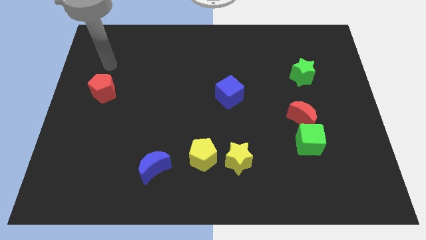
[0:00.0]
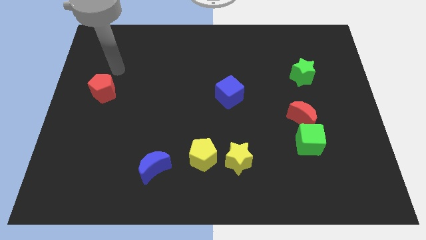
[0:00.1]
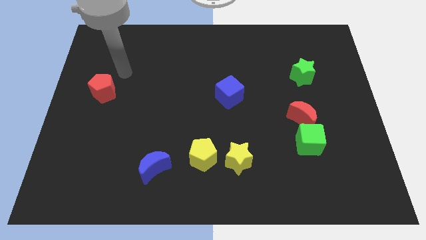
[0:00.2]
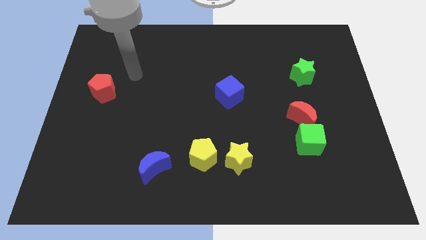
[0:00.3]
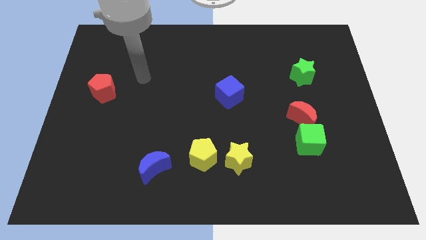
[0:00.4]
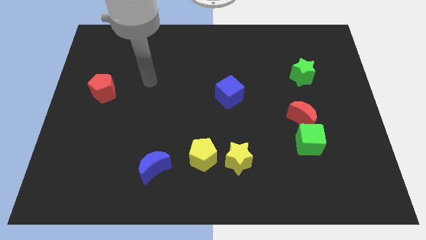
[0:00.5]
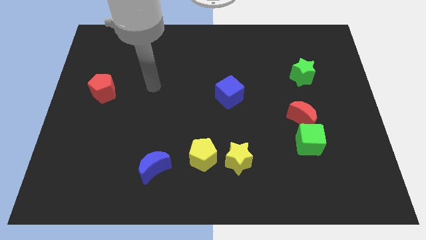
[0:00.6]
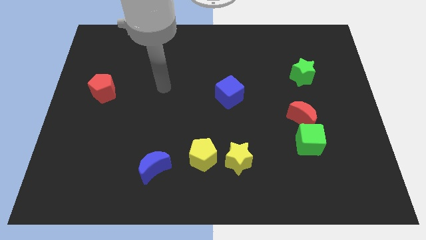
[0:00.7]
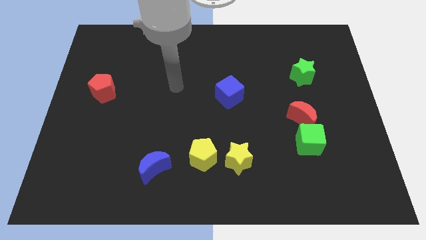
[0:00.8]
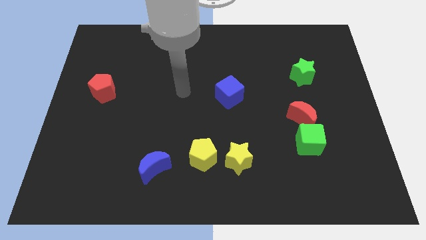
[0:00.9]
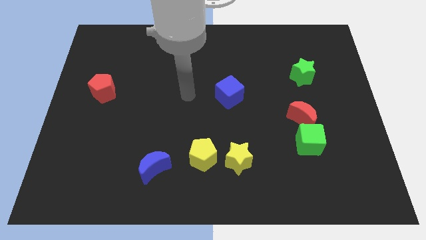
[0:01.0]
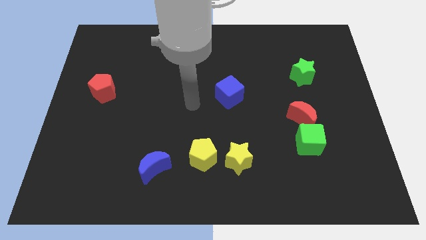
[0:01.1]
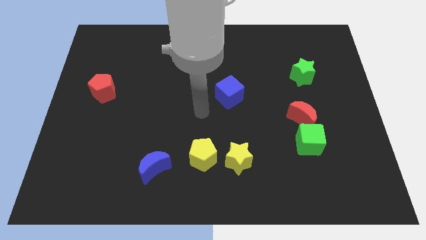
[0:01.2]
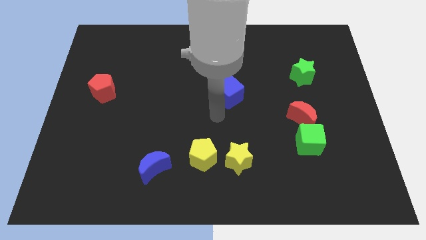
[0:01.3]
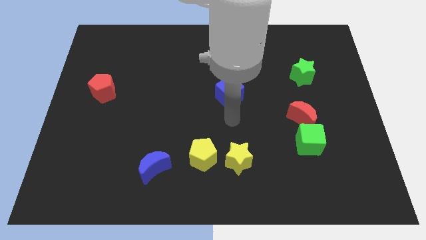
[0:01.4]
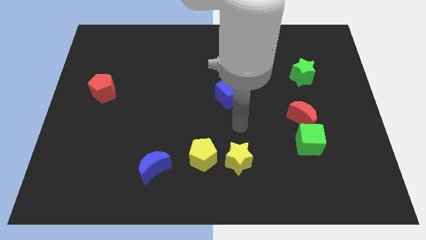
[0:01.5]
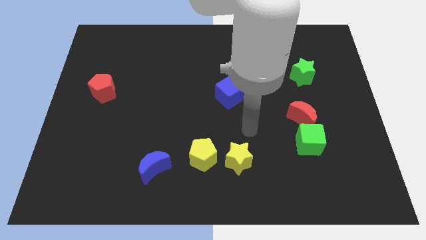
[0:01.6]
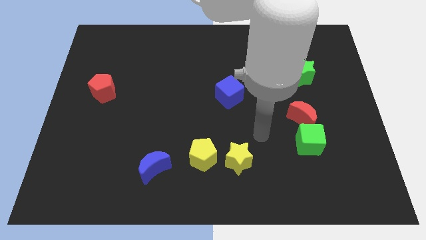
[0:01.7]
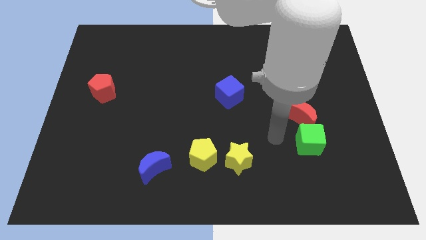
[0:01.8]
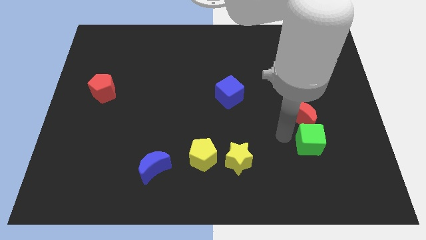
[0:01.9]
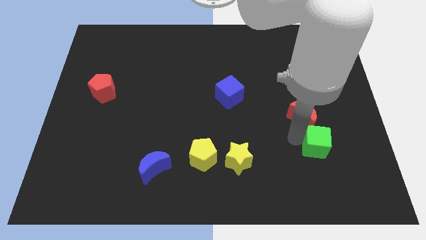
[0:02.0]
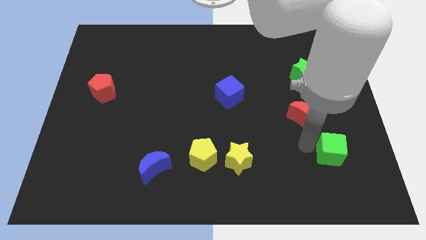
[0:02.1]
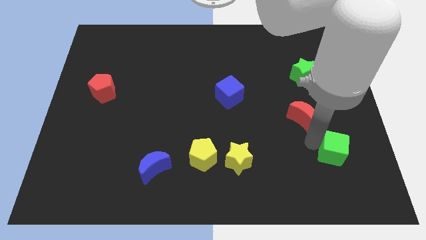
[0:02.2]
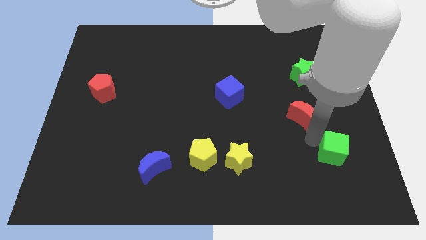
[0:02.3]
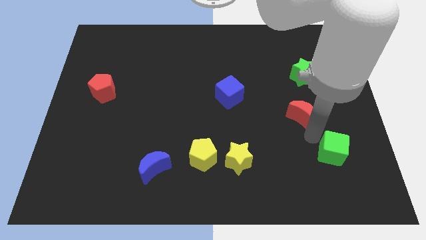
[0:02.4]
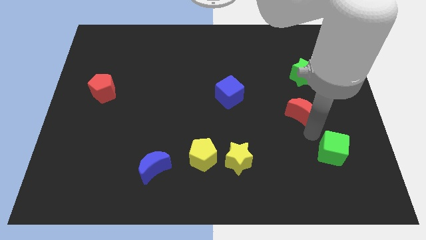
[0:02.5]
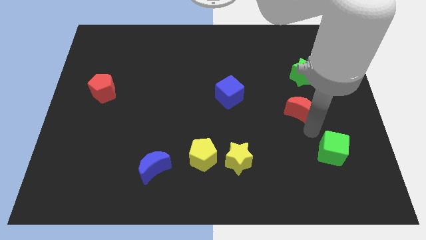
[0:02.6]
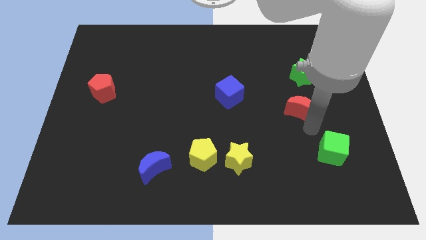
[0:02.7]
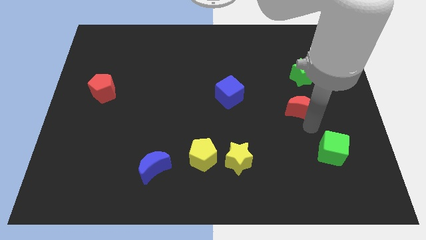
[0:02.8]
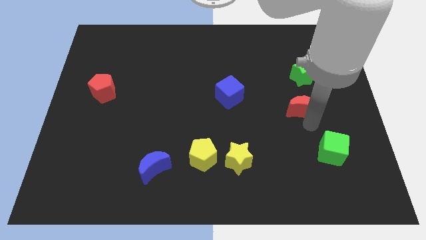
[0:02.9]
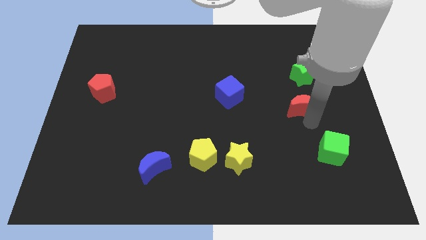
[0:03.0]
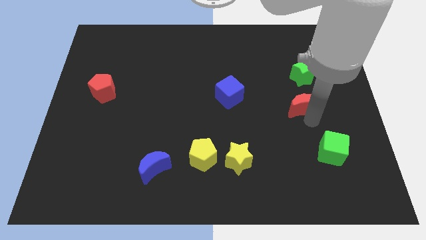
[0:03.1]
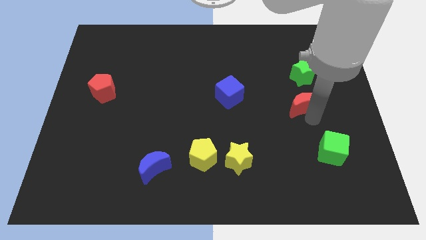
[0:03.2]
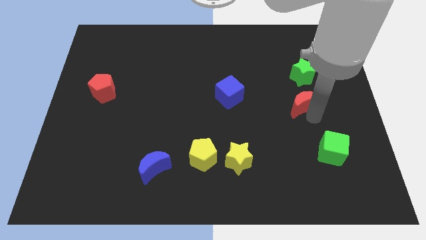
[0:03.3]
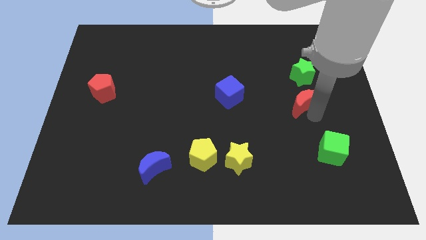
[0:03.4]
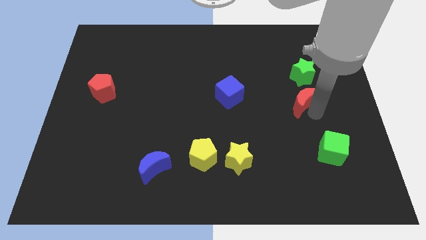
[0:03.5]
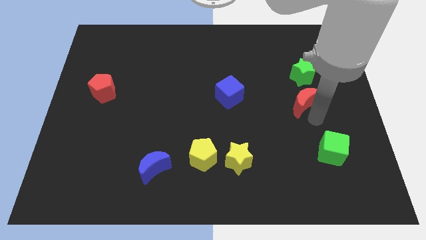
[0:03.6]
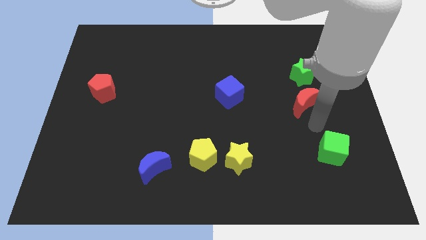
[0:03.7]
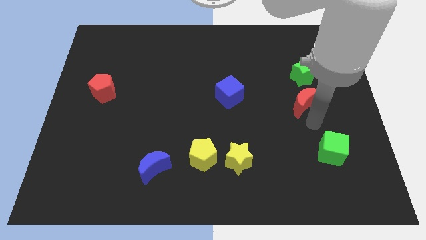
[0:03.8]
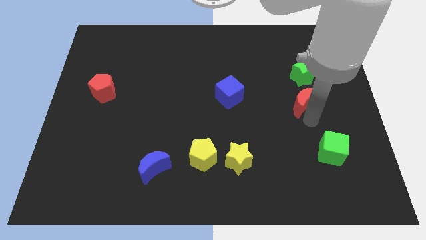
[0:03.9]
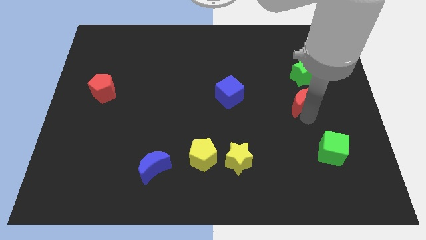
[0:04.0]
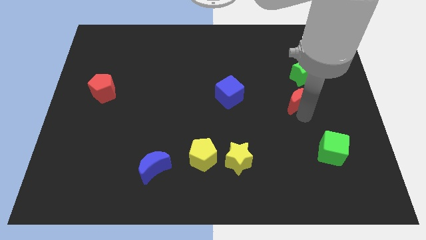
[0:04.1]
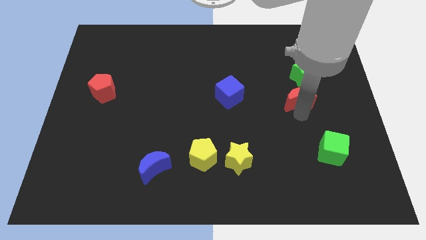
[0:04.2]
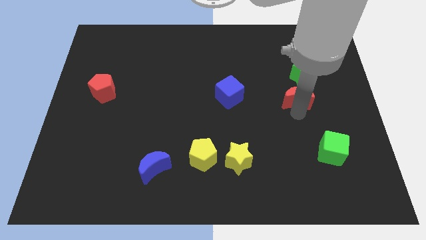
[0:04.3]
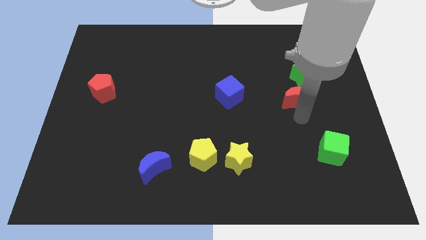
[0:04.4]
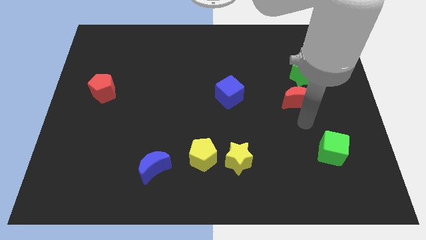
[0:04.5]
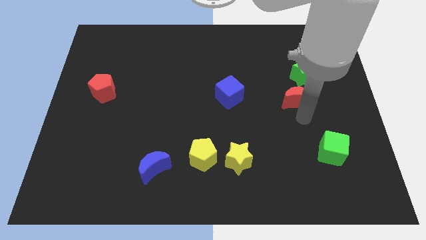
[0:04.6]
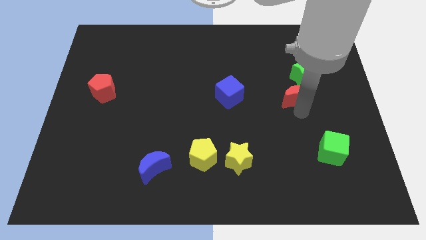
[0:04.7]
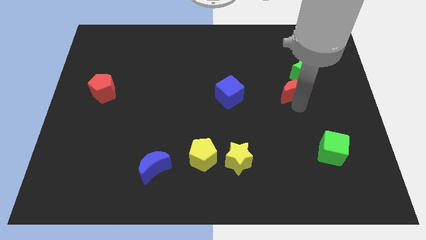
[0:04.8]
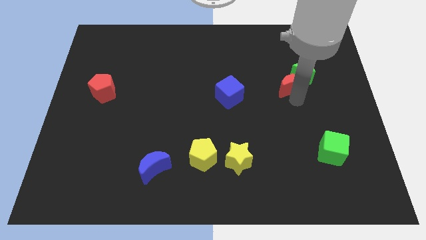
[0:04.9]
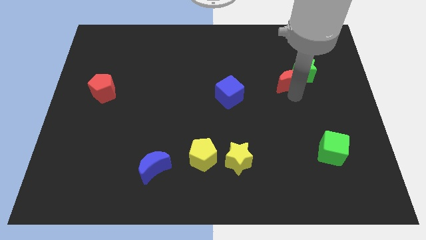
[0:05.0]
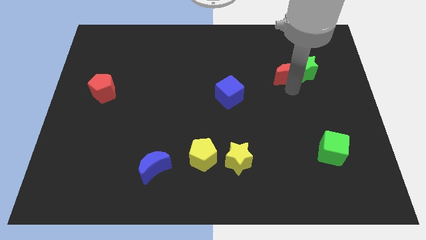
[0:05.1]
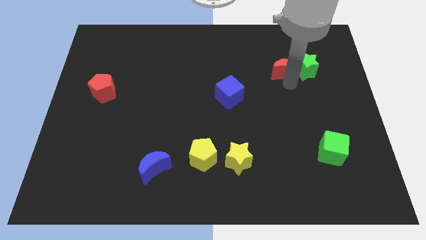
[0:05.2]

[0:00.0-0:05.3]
move the red moon to the top left side of the green star

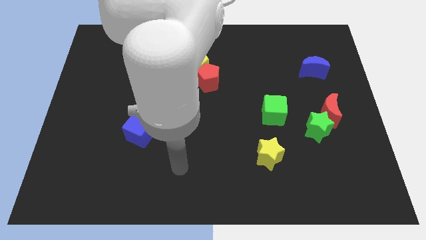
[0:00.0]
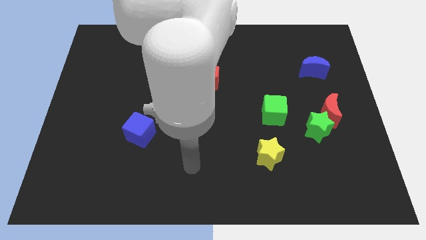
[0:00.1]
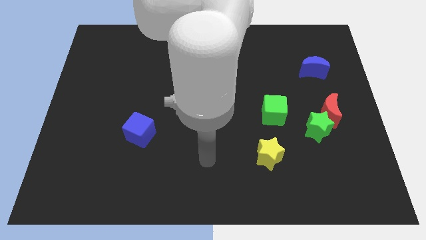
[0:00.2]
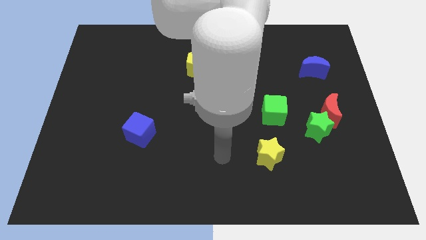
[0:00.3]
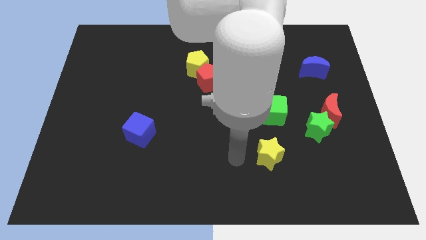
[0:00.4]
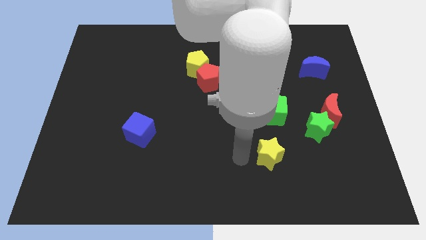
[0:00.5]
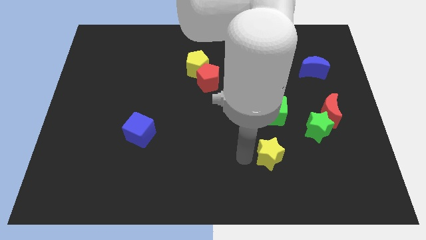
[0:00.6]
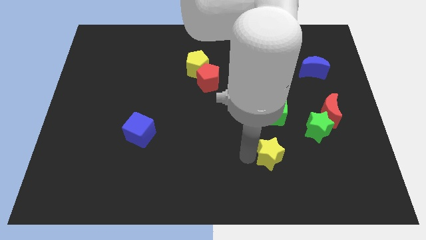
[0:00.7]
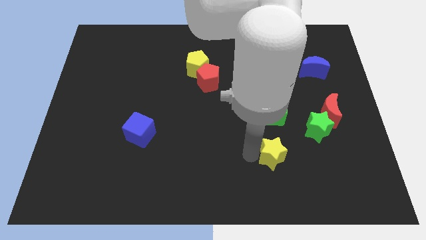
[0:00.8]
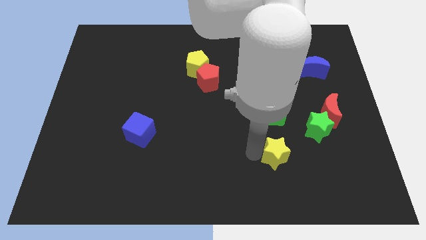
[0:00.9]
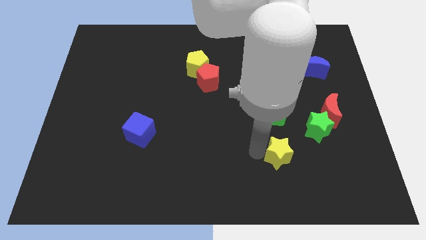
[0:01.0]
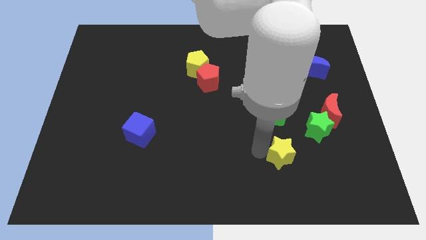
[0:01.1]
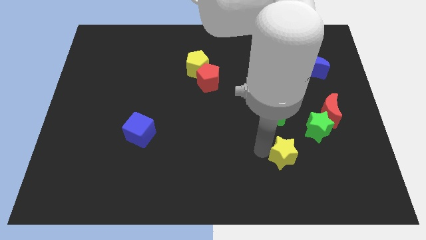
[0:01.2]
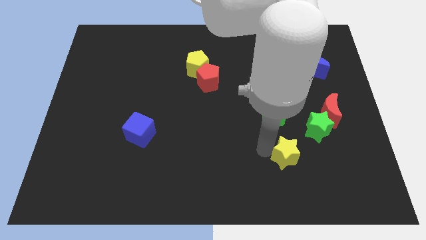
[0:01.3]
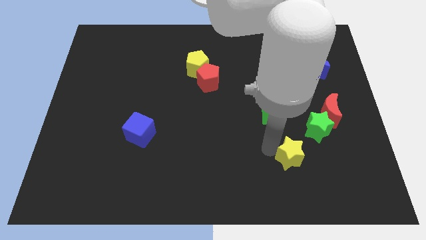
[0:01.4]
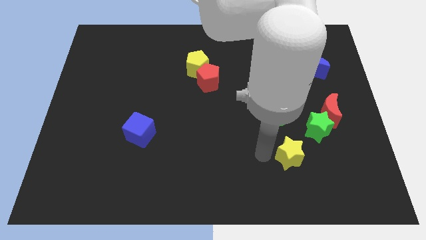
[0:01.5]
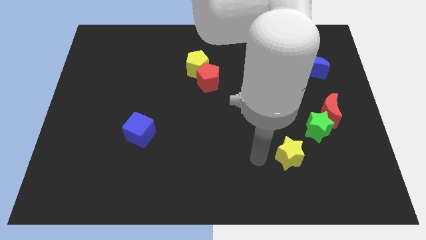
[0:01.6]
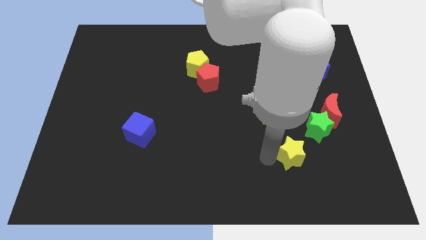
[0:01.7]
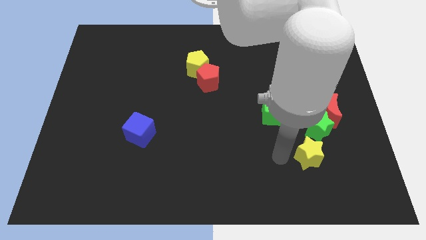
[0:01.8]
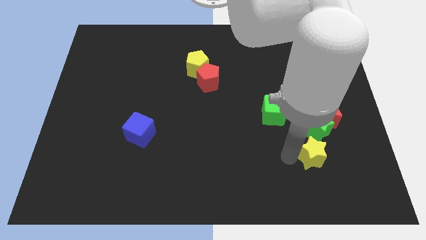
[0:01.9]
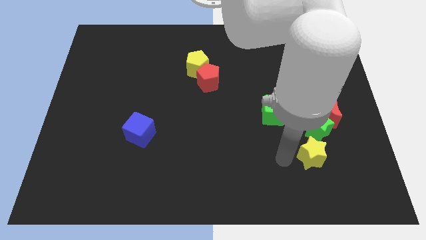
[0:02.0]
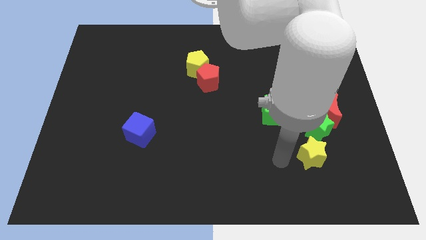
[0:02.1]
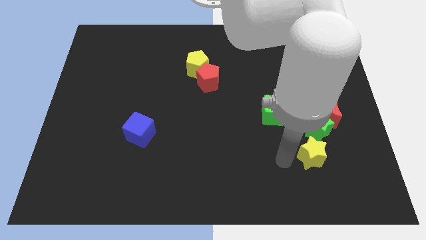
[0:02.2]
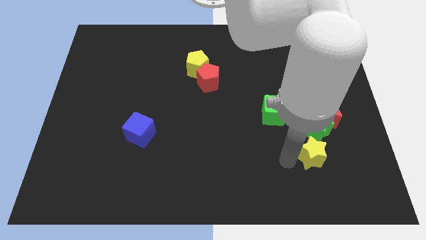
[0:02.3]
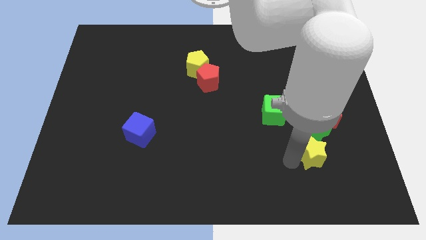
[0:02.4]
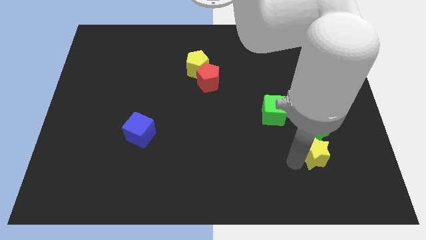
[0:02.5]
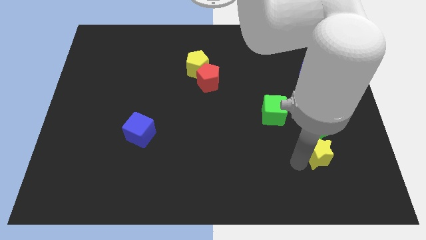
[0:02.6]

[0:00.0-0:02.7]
put the yellow star to the bottom of the red moon

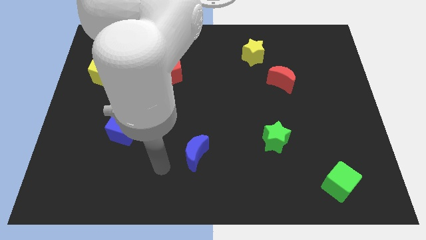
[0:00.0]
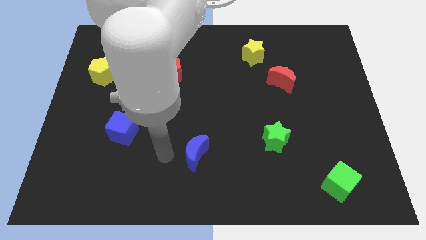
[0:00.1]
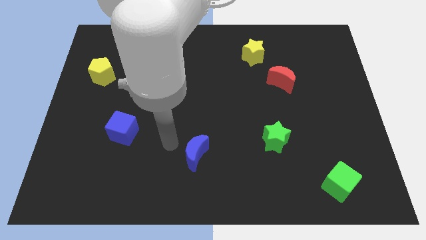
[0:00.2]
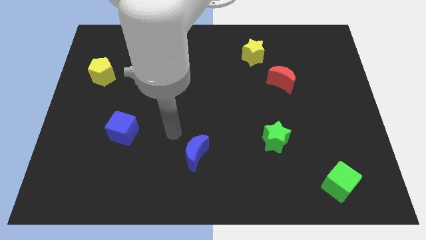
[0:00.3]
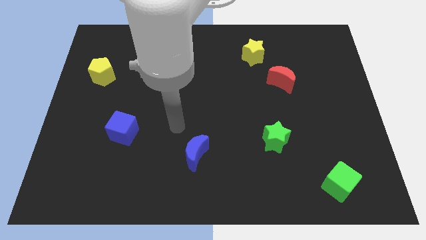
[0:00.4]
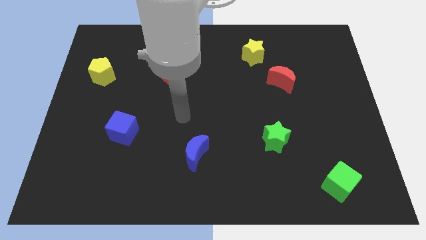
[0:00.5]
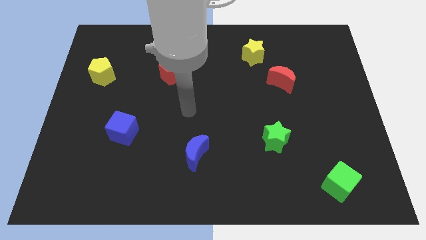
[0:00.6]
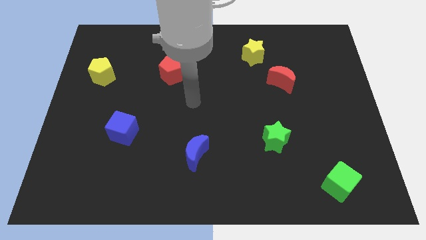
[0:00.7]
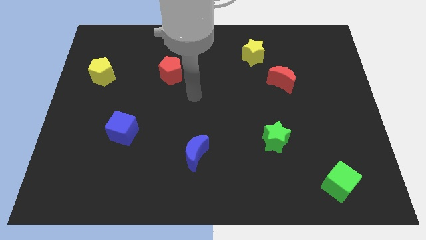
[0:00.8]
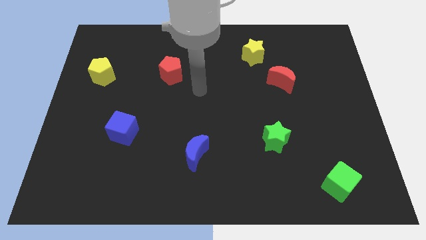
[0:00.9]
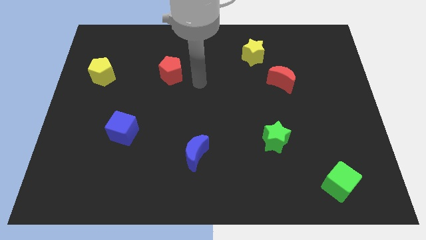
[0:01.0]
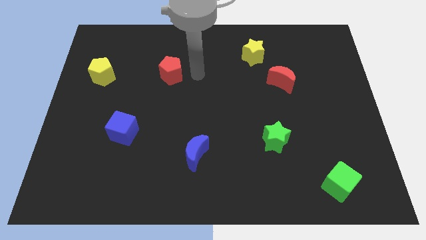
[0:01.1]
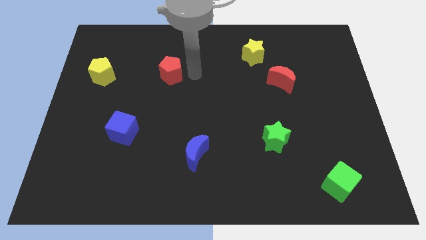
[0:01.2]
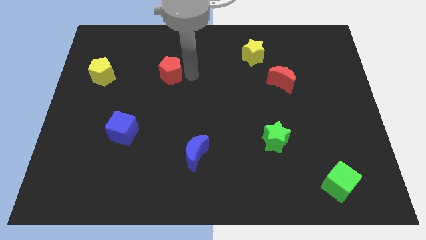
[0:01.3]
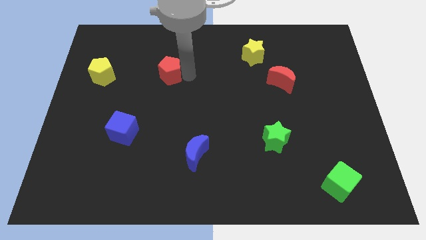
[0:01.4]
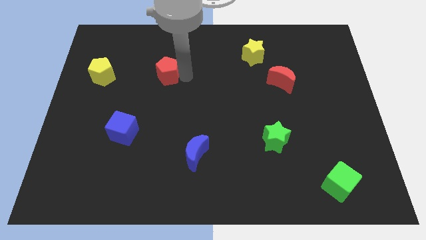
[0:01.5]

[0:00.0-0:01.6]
push the red pentagon just right of the yellow pentagon
